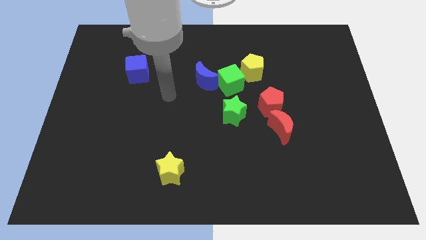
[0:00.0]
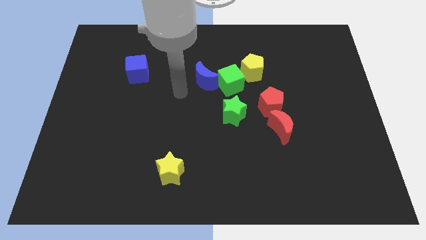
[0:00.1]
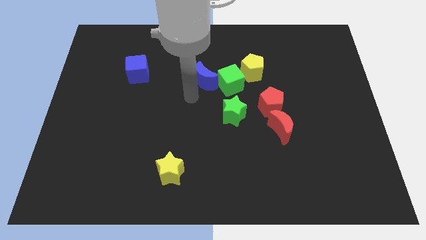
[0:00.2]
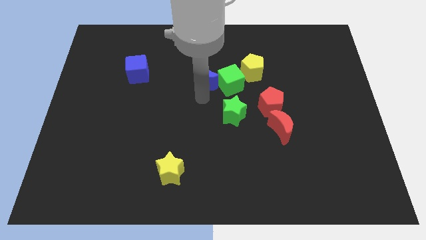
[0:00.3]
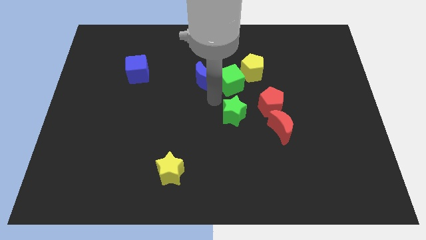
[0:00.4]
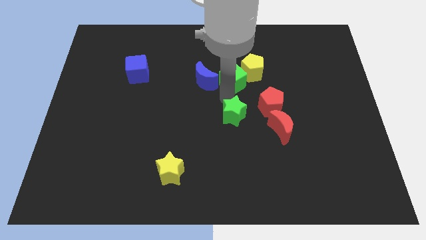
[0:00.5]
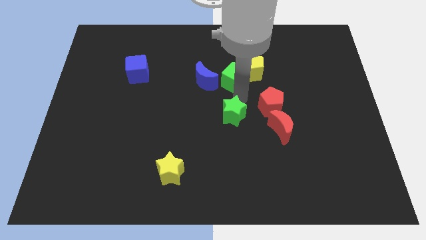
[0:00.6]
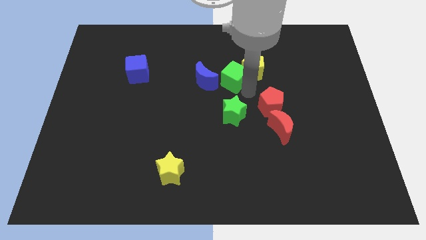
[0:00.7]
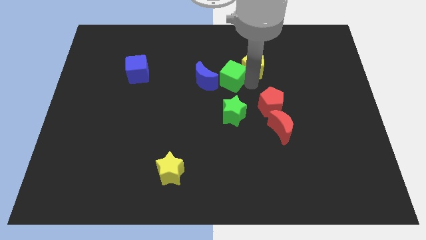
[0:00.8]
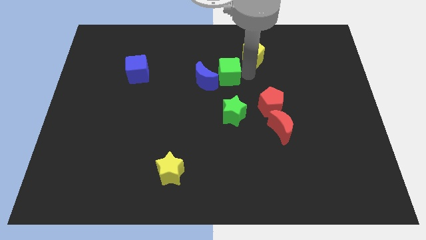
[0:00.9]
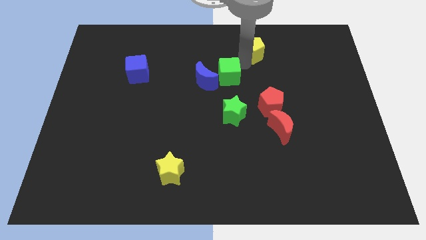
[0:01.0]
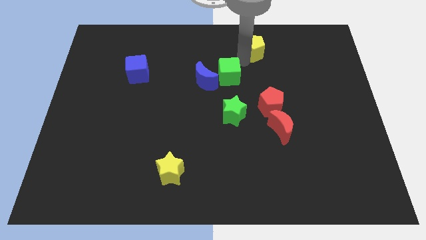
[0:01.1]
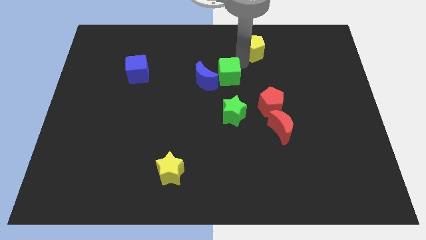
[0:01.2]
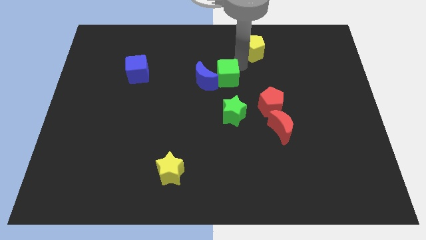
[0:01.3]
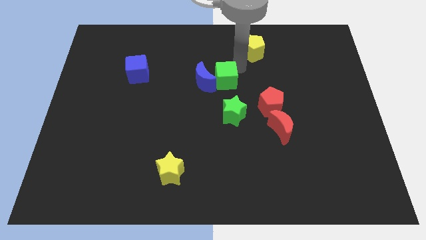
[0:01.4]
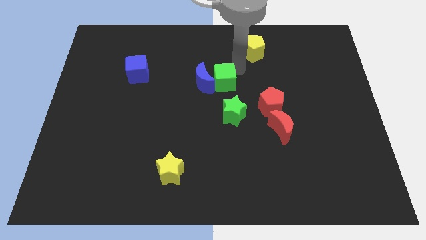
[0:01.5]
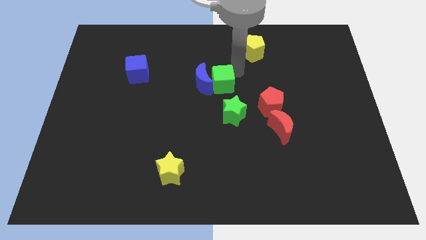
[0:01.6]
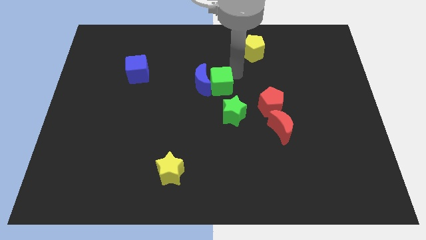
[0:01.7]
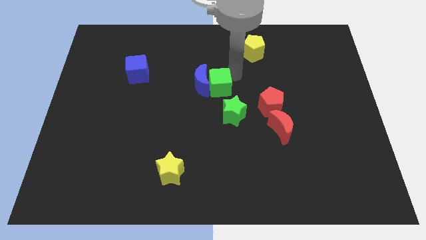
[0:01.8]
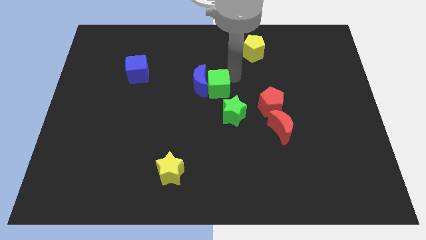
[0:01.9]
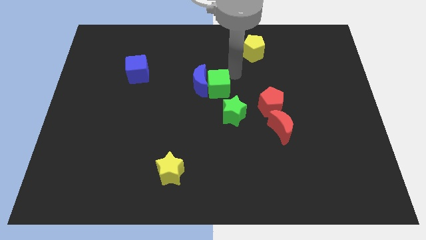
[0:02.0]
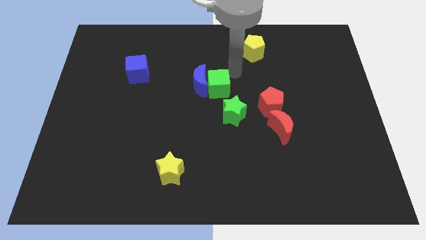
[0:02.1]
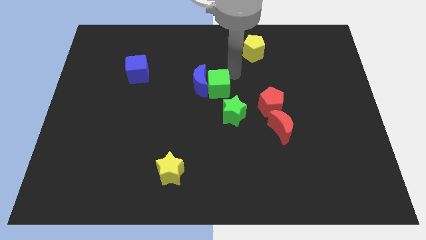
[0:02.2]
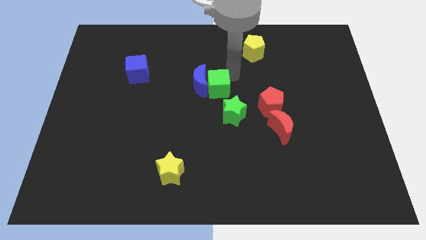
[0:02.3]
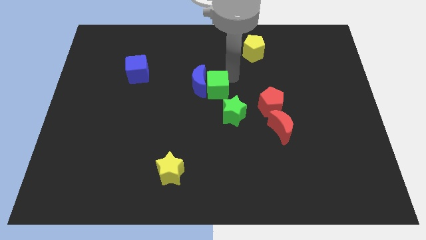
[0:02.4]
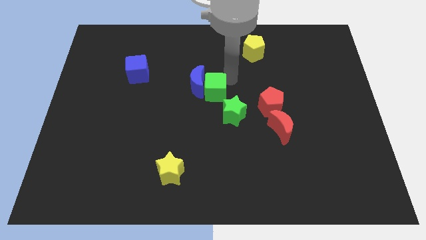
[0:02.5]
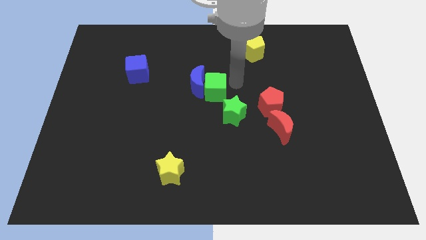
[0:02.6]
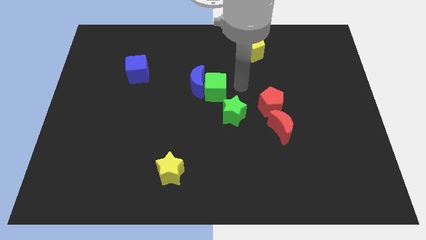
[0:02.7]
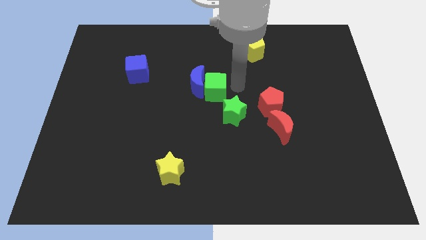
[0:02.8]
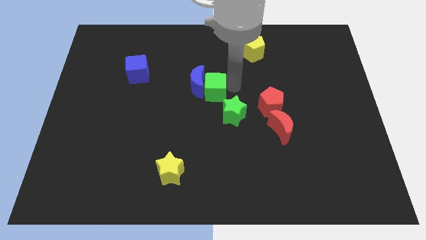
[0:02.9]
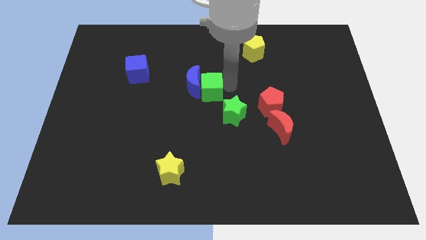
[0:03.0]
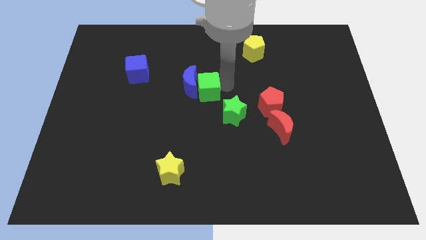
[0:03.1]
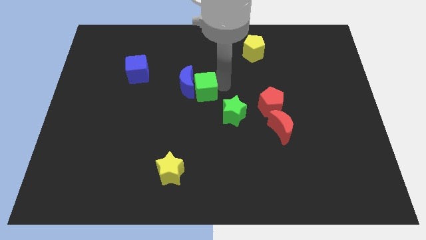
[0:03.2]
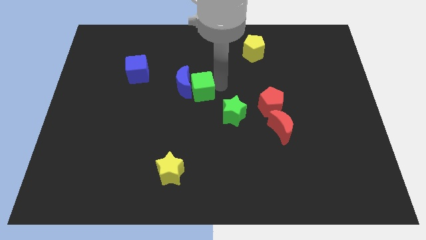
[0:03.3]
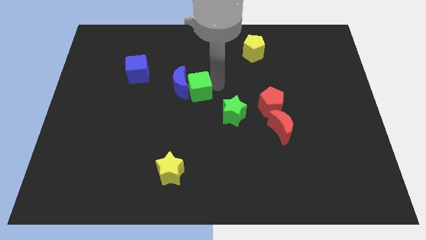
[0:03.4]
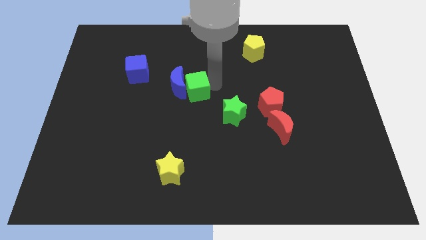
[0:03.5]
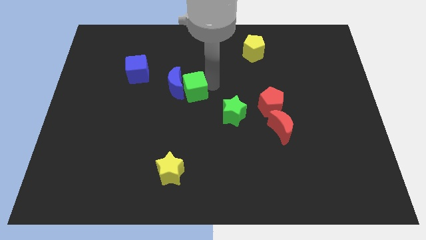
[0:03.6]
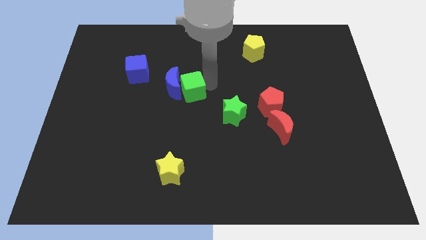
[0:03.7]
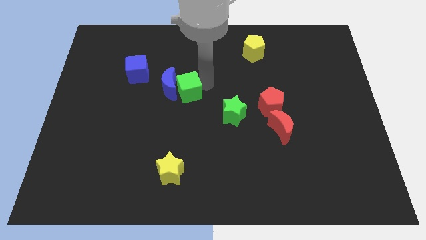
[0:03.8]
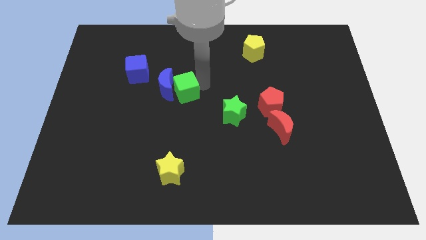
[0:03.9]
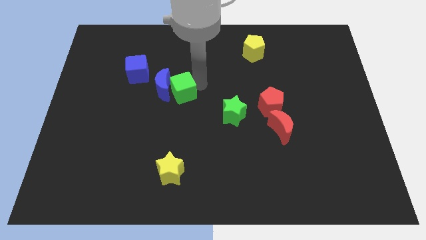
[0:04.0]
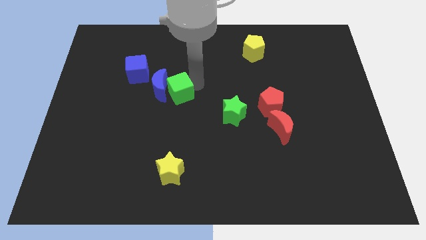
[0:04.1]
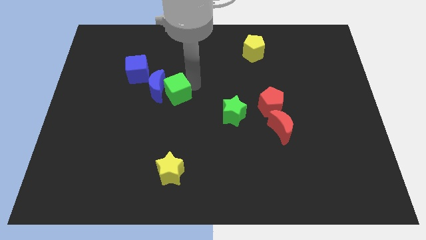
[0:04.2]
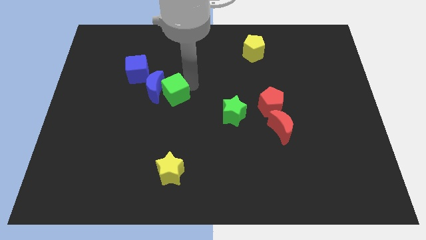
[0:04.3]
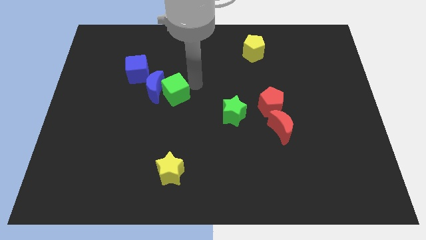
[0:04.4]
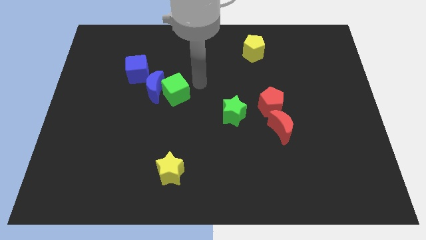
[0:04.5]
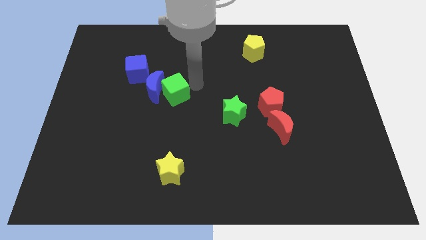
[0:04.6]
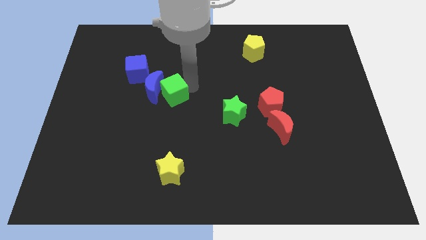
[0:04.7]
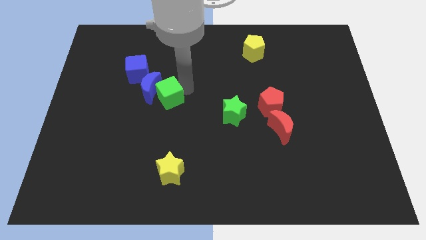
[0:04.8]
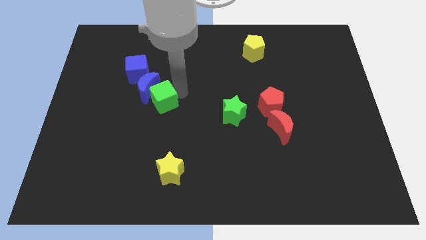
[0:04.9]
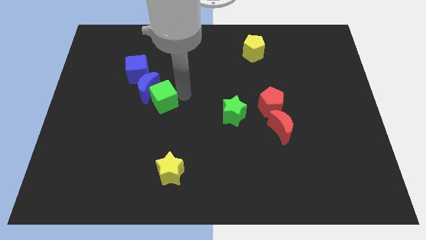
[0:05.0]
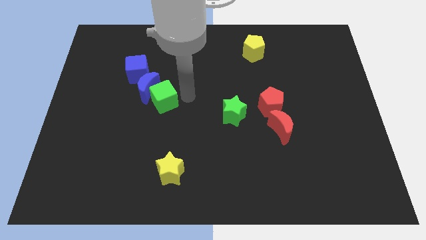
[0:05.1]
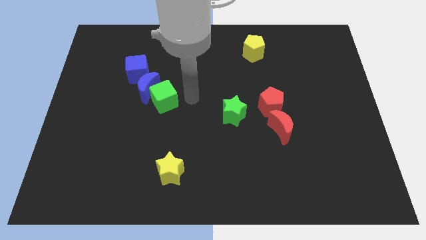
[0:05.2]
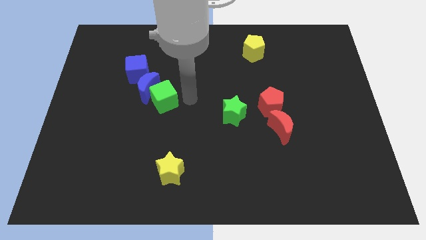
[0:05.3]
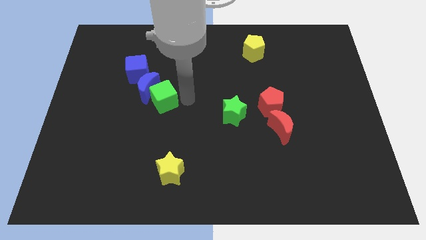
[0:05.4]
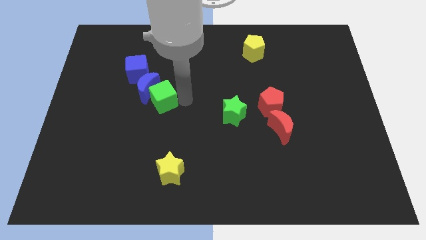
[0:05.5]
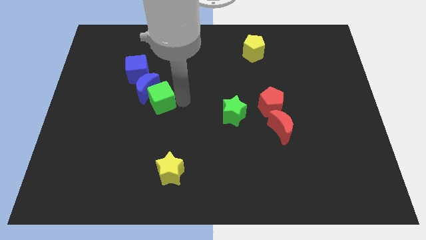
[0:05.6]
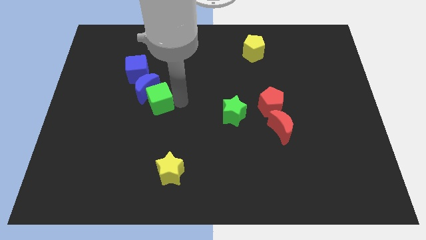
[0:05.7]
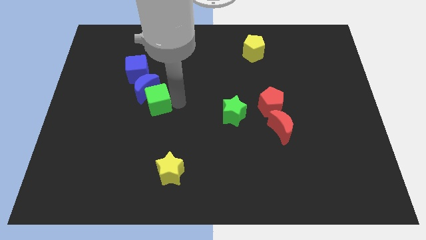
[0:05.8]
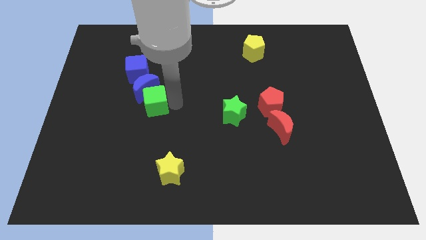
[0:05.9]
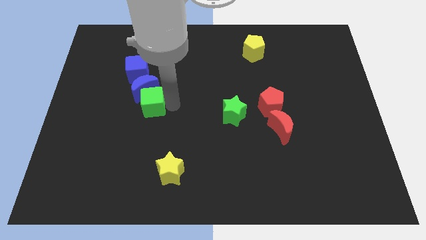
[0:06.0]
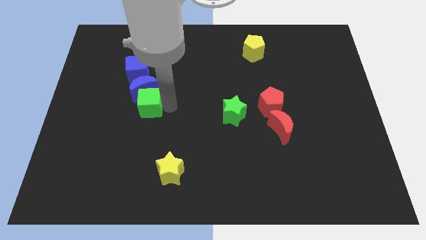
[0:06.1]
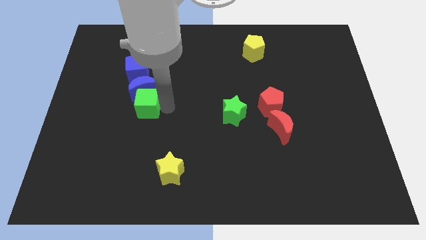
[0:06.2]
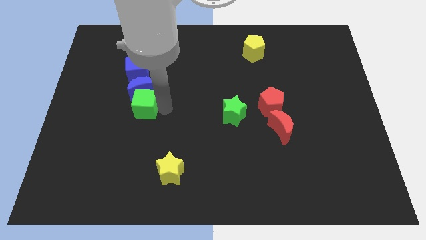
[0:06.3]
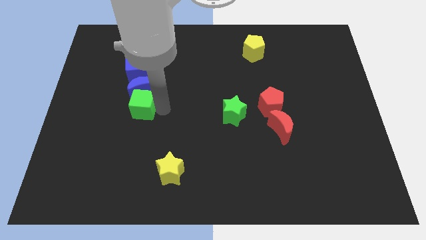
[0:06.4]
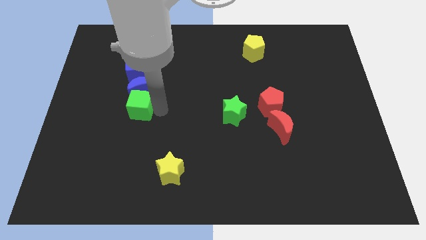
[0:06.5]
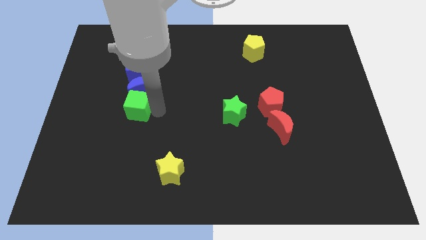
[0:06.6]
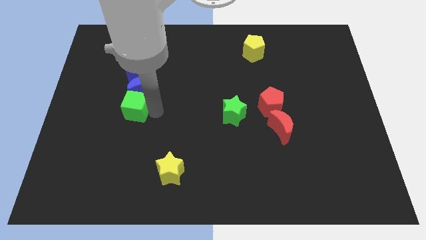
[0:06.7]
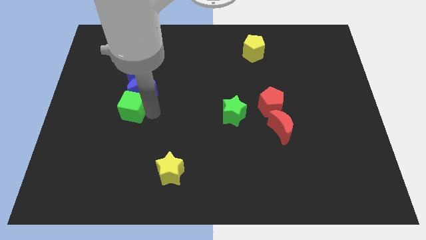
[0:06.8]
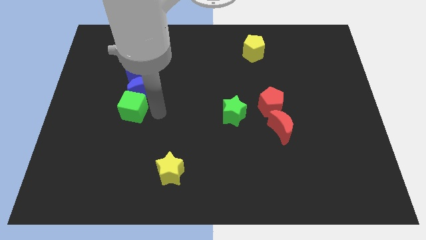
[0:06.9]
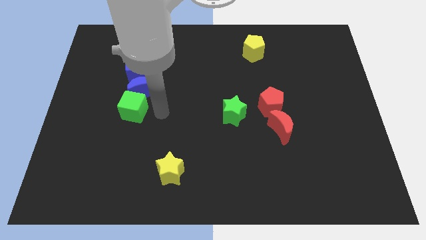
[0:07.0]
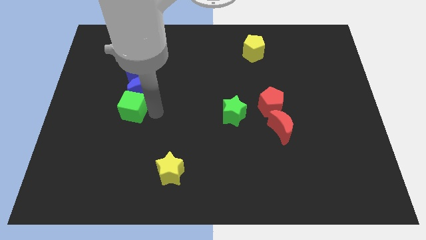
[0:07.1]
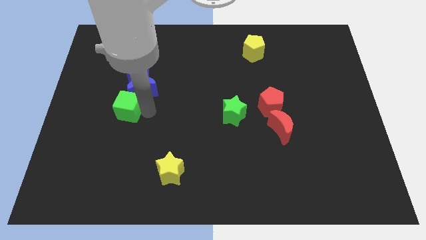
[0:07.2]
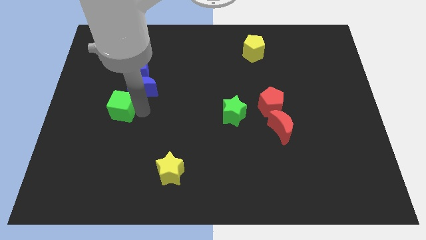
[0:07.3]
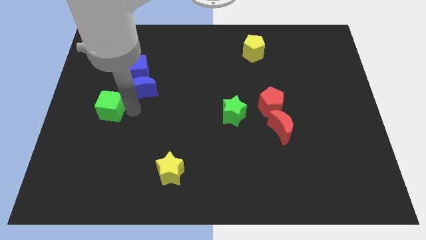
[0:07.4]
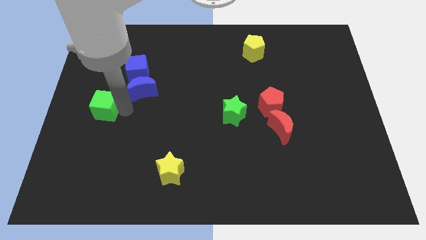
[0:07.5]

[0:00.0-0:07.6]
slide the green cube to the left side of the board
